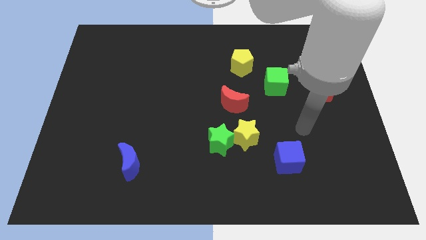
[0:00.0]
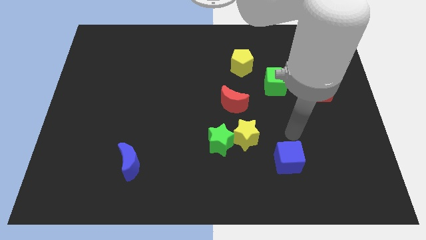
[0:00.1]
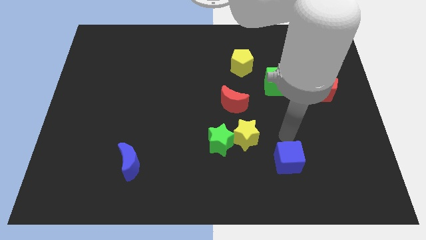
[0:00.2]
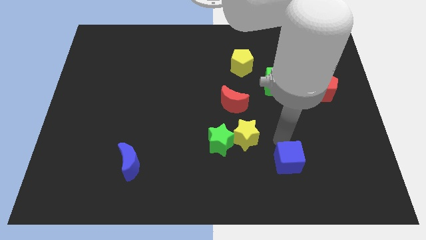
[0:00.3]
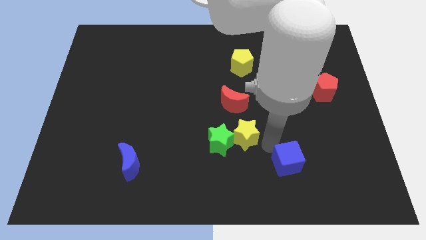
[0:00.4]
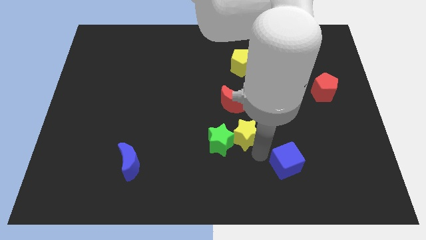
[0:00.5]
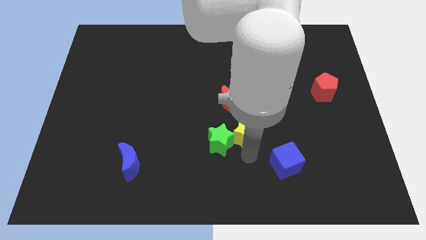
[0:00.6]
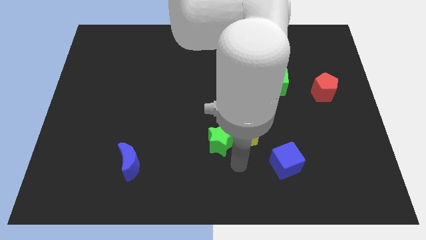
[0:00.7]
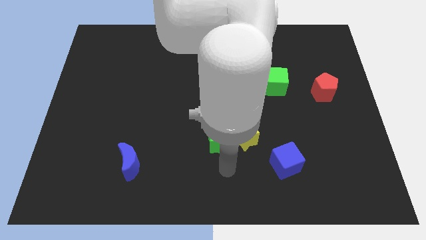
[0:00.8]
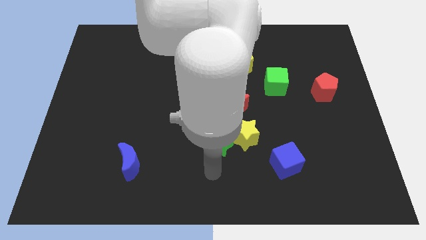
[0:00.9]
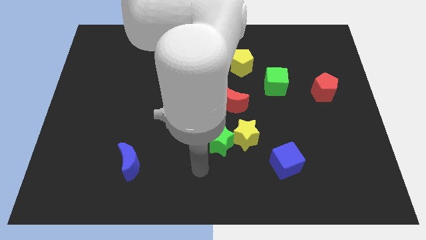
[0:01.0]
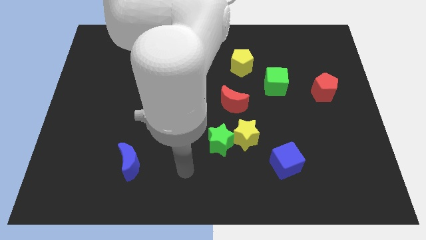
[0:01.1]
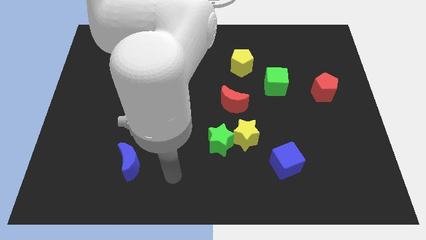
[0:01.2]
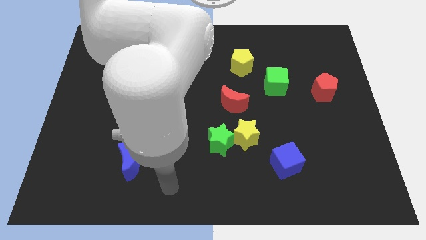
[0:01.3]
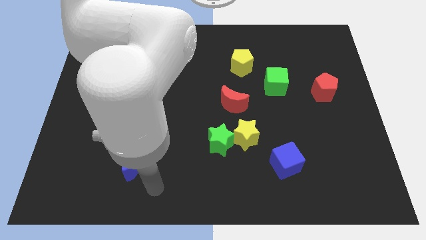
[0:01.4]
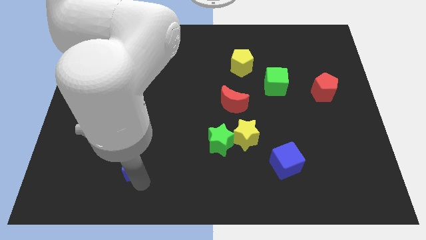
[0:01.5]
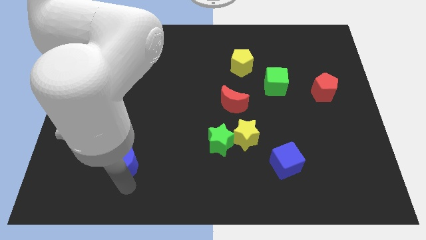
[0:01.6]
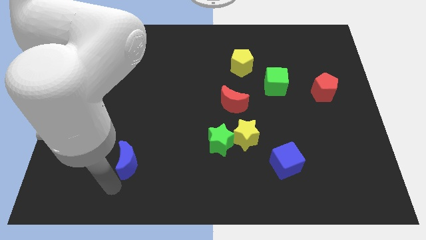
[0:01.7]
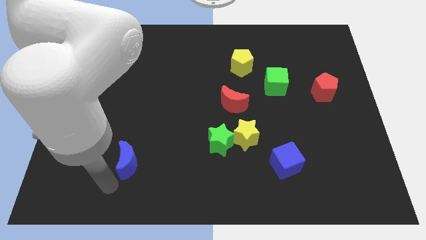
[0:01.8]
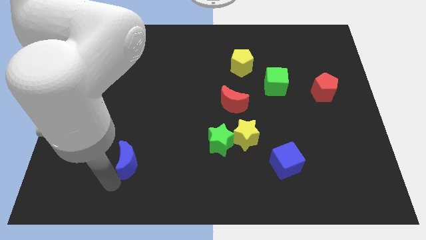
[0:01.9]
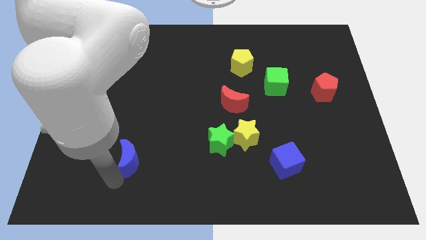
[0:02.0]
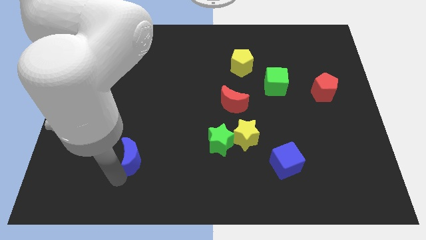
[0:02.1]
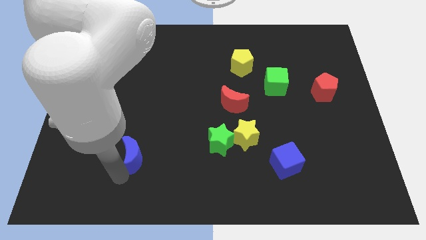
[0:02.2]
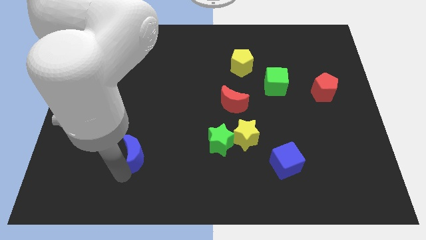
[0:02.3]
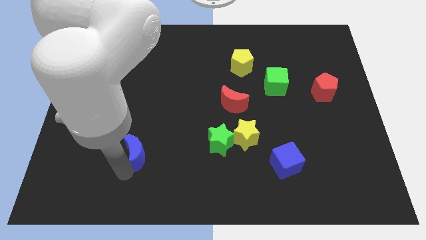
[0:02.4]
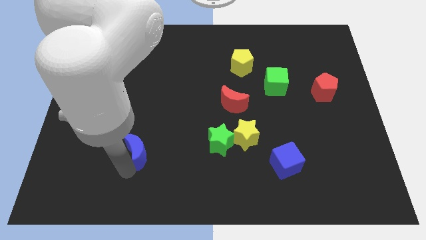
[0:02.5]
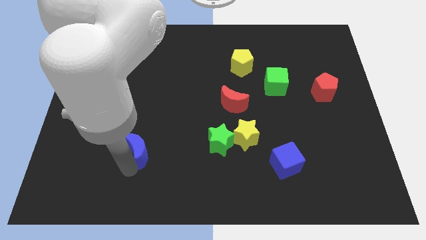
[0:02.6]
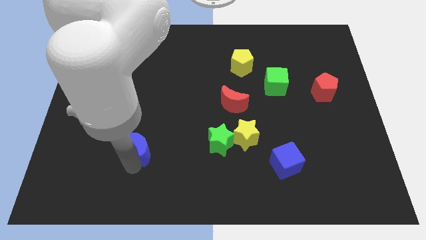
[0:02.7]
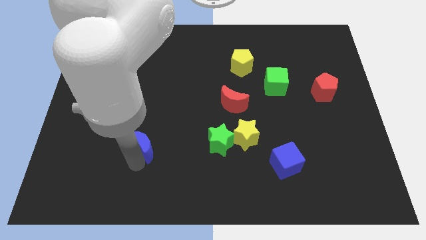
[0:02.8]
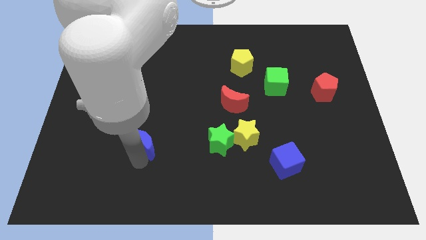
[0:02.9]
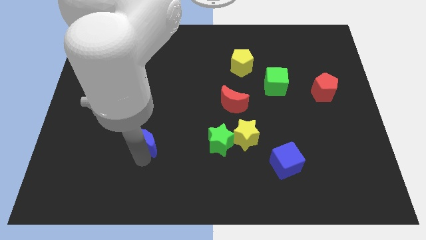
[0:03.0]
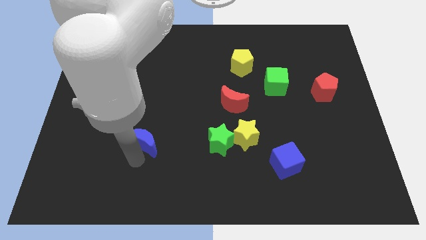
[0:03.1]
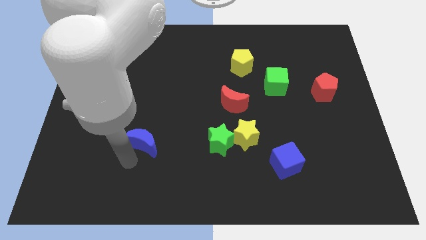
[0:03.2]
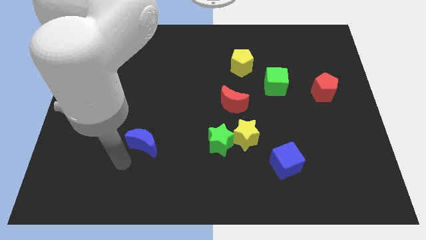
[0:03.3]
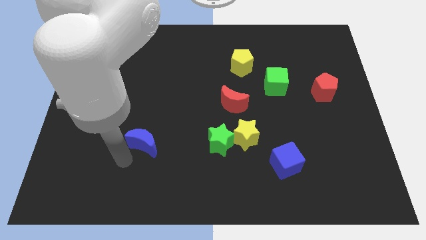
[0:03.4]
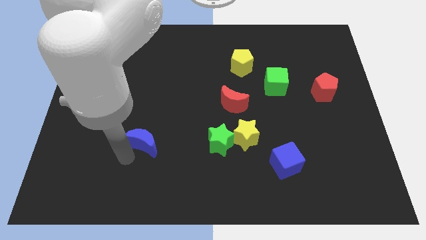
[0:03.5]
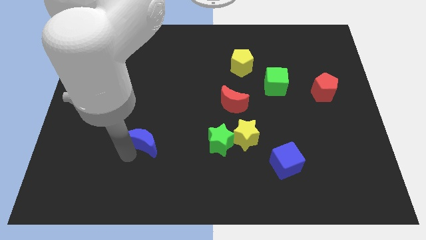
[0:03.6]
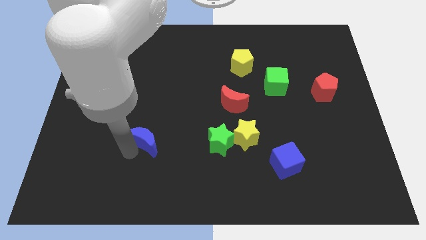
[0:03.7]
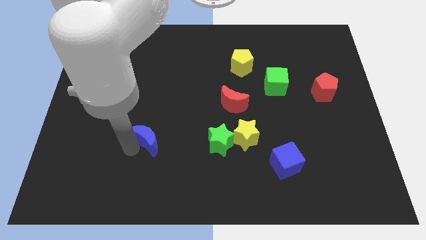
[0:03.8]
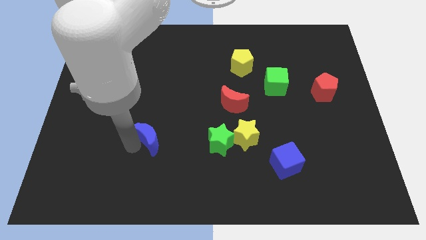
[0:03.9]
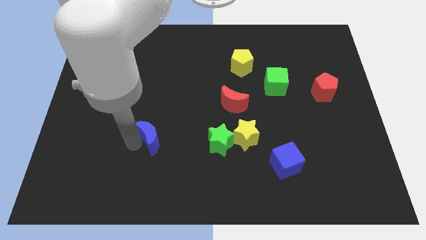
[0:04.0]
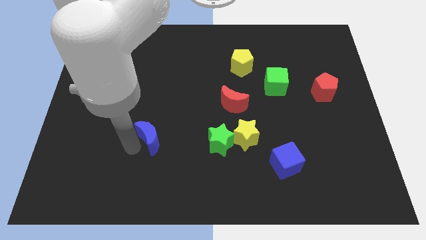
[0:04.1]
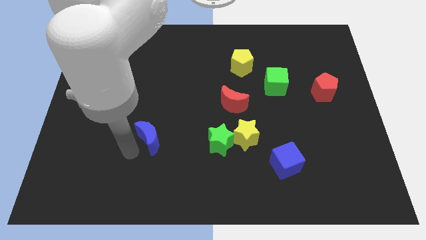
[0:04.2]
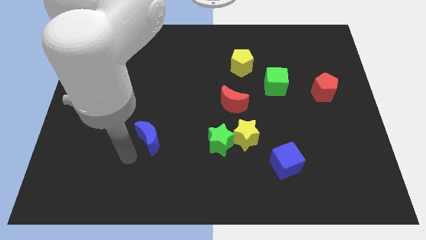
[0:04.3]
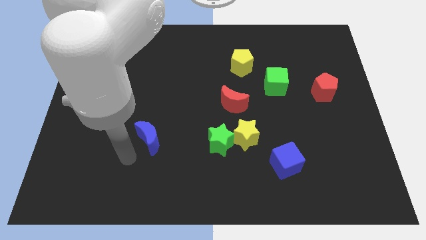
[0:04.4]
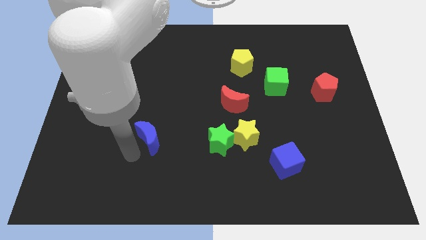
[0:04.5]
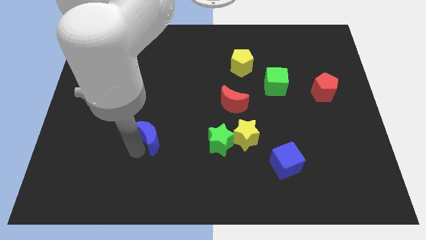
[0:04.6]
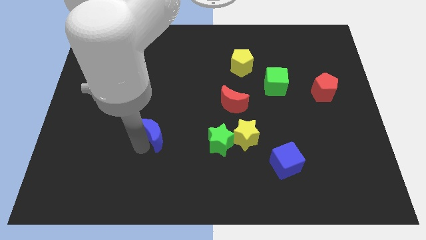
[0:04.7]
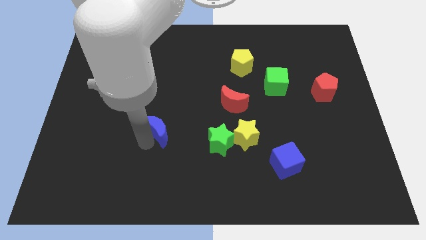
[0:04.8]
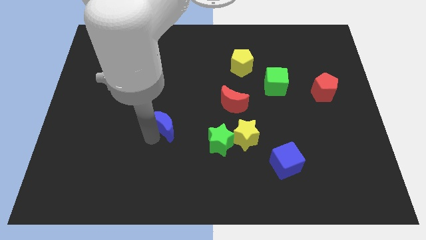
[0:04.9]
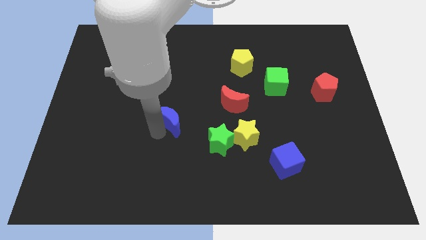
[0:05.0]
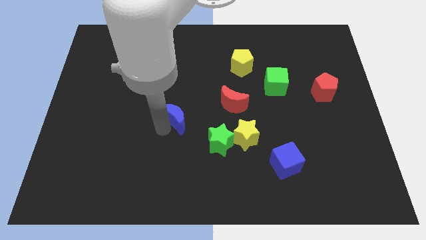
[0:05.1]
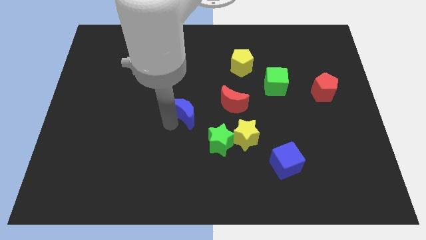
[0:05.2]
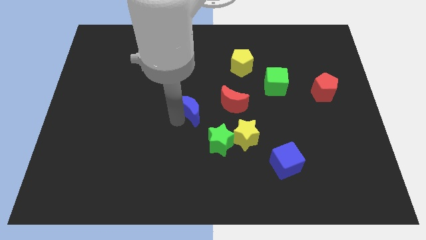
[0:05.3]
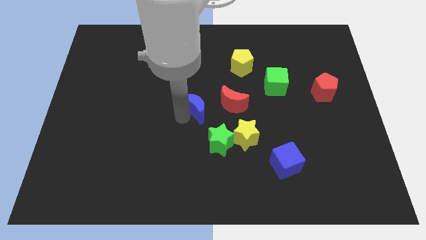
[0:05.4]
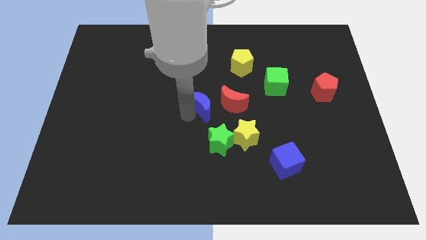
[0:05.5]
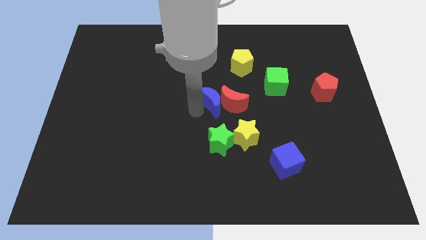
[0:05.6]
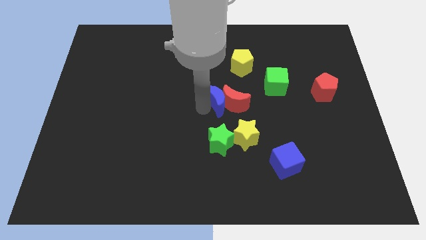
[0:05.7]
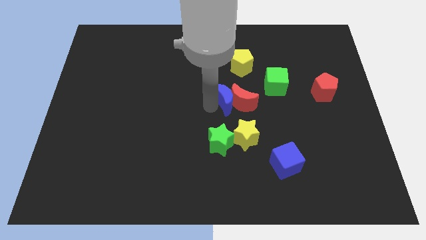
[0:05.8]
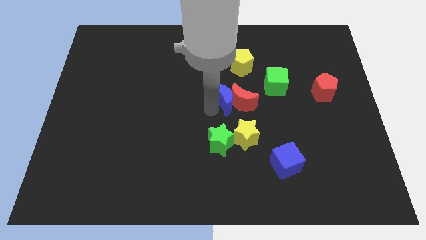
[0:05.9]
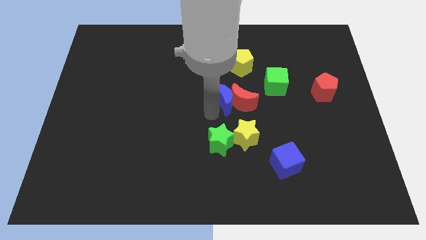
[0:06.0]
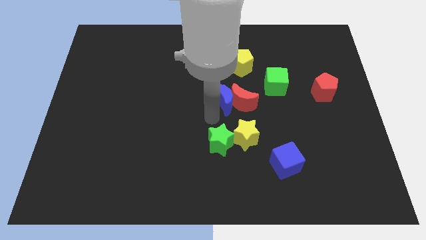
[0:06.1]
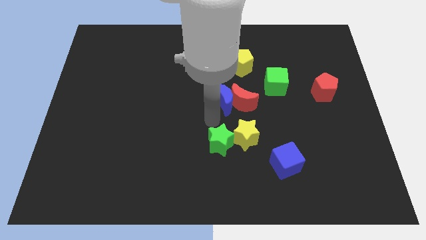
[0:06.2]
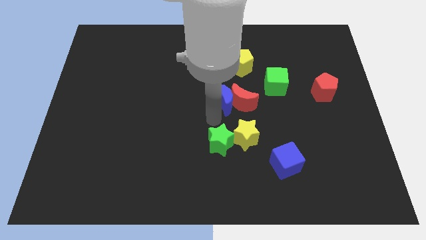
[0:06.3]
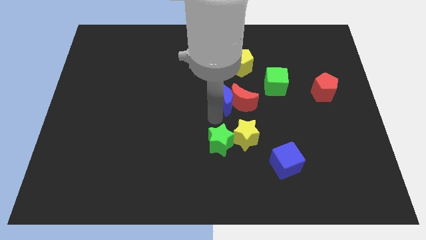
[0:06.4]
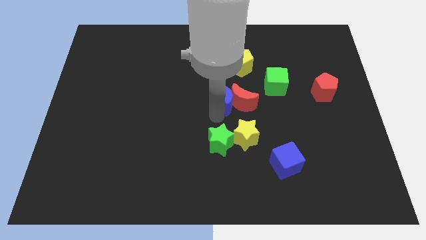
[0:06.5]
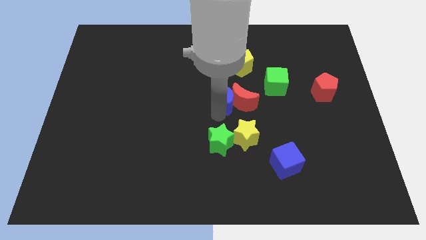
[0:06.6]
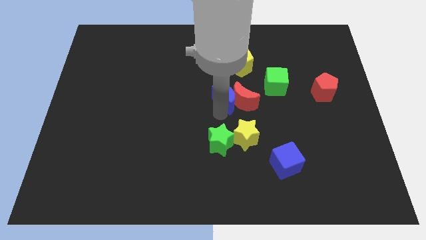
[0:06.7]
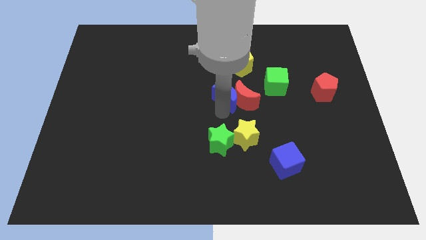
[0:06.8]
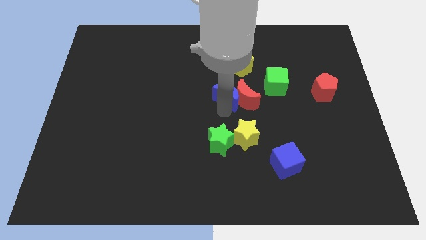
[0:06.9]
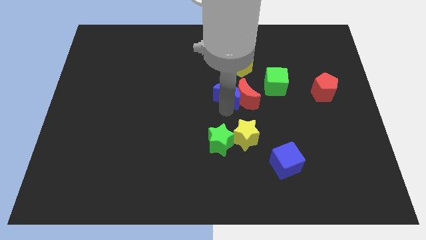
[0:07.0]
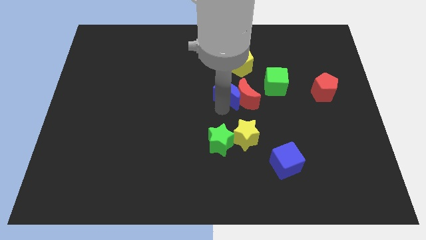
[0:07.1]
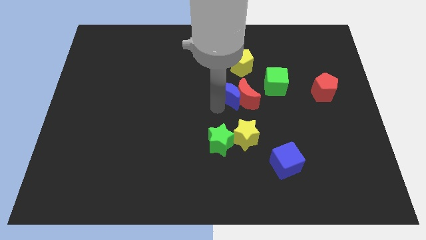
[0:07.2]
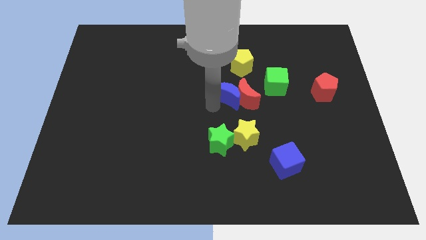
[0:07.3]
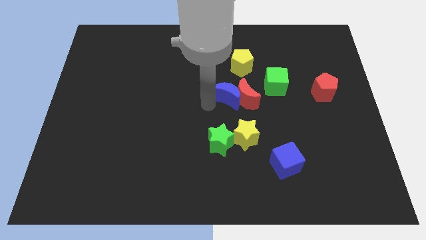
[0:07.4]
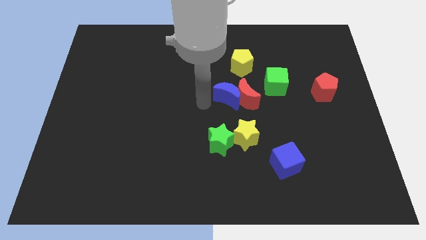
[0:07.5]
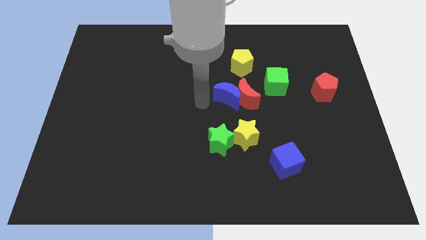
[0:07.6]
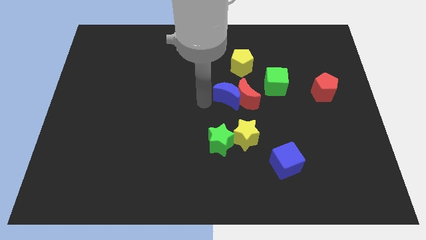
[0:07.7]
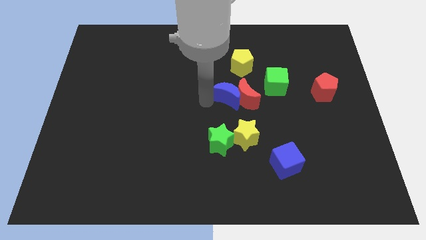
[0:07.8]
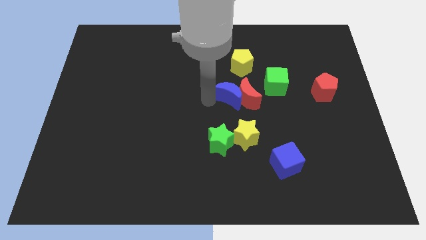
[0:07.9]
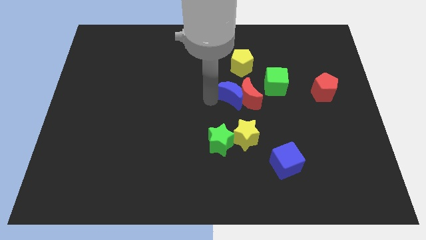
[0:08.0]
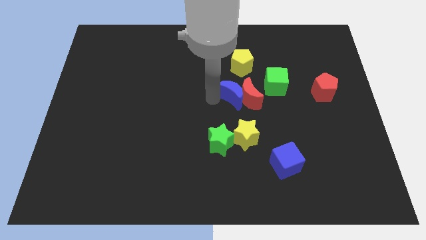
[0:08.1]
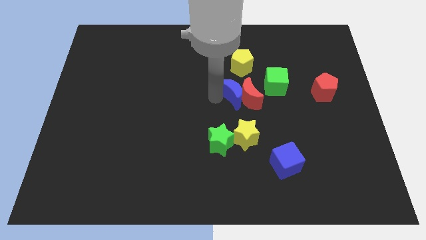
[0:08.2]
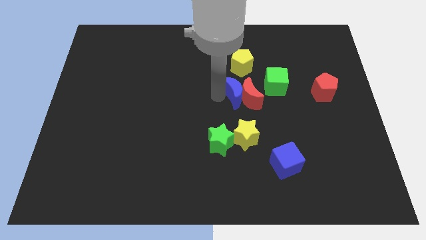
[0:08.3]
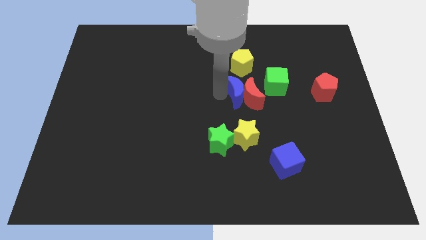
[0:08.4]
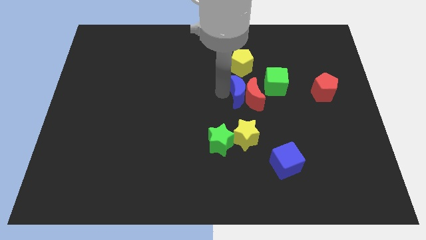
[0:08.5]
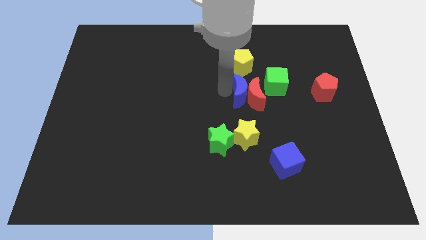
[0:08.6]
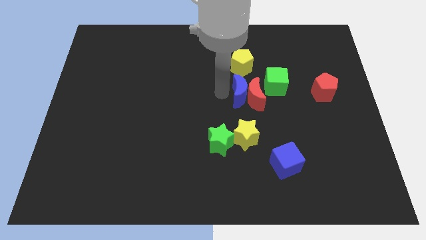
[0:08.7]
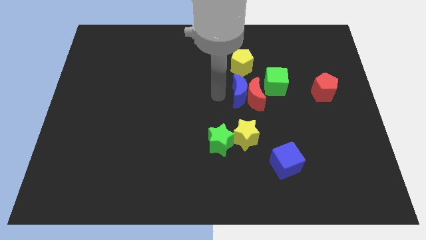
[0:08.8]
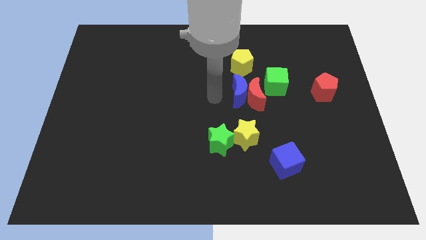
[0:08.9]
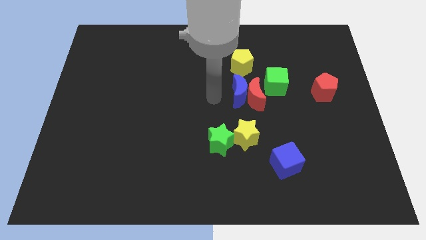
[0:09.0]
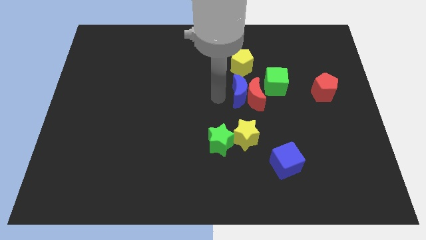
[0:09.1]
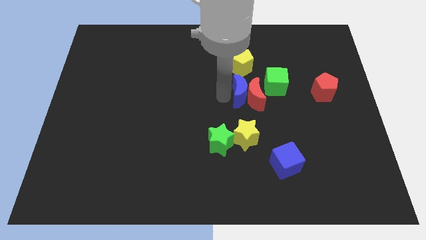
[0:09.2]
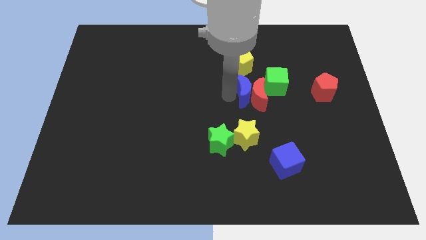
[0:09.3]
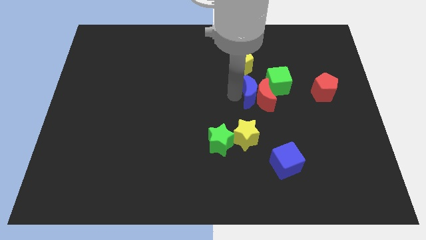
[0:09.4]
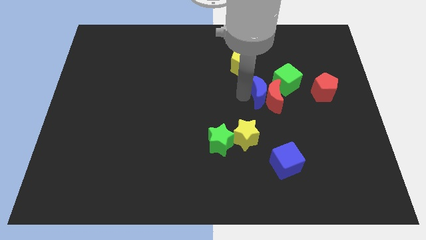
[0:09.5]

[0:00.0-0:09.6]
move the blue moon just left of the red pentagon
